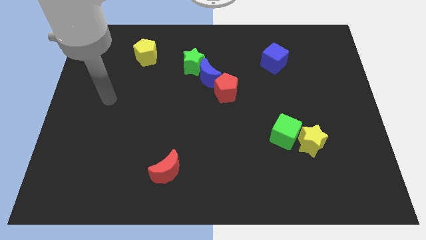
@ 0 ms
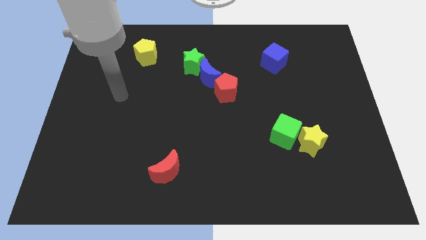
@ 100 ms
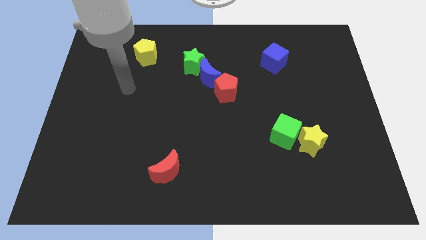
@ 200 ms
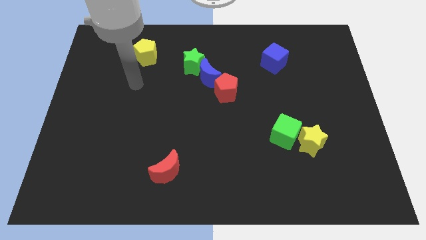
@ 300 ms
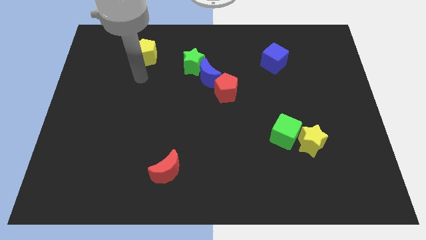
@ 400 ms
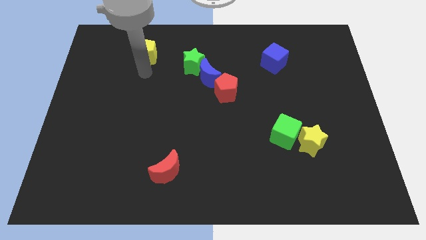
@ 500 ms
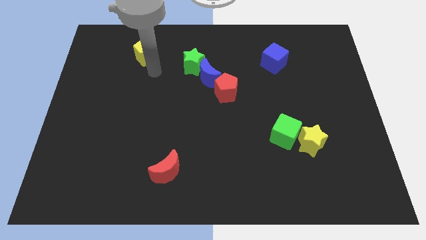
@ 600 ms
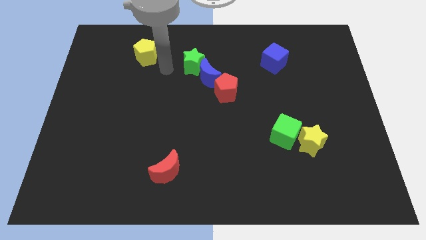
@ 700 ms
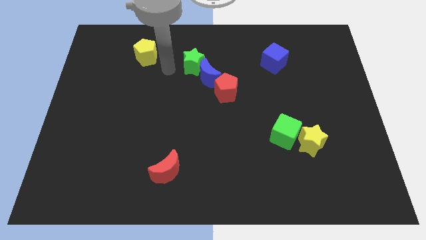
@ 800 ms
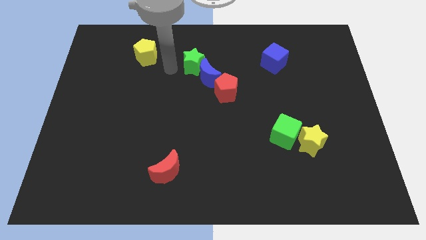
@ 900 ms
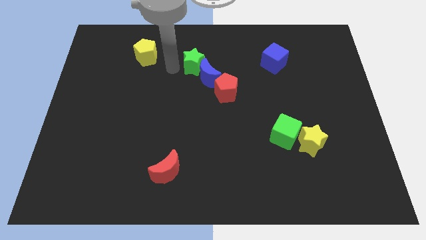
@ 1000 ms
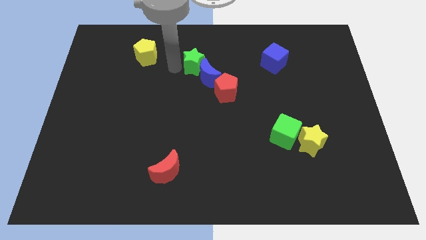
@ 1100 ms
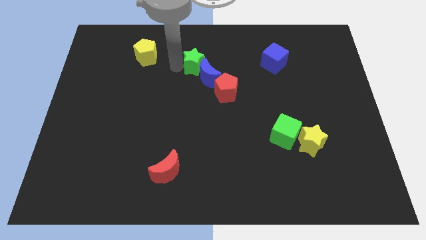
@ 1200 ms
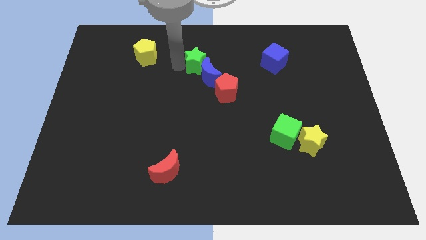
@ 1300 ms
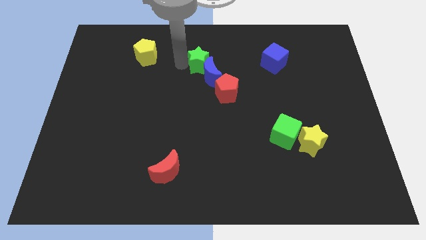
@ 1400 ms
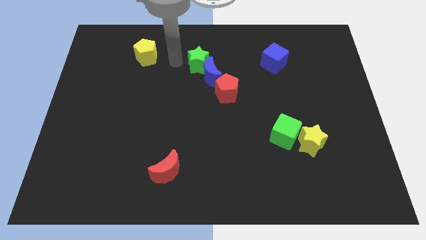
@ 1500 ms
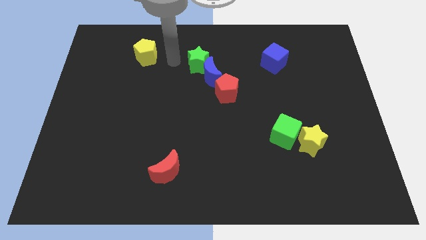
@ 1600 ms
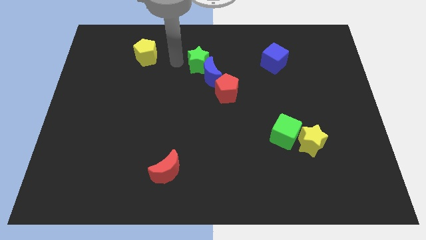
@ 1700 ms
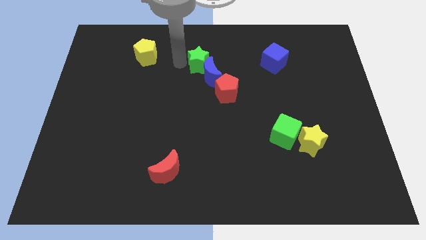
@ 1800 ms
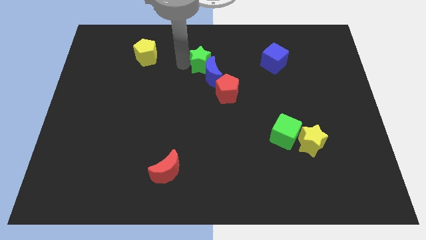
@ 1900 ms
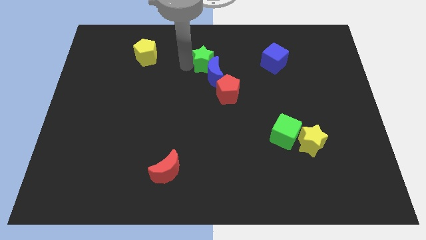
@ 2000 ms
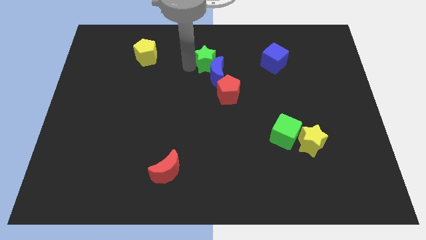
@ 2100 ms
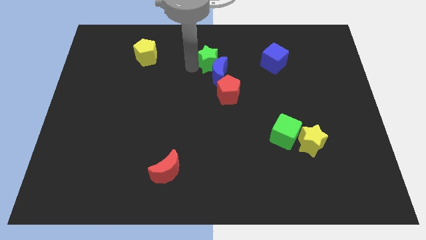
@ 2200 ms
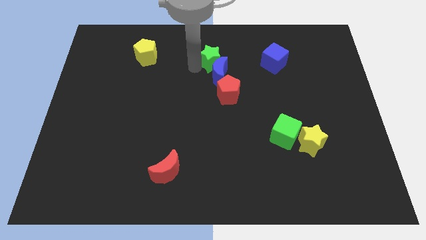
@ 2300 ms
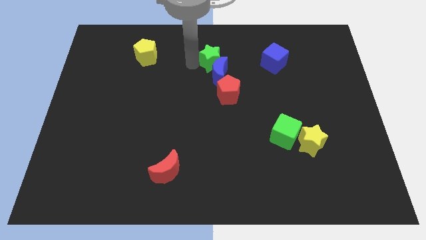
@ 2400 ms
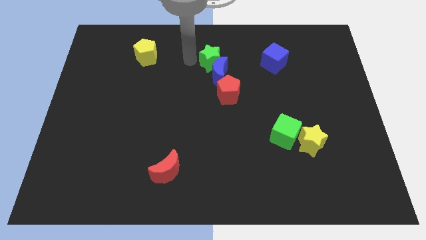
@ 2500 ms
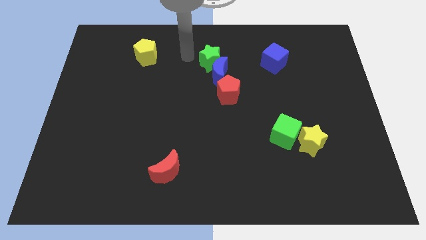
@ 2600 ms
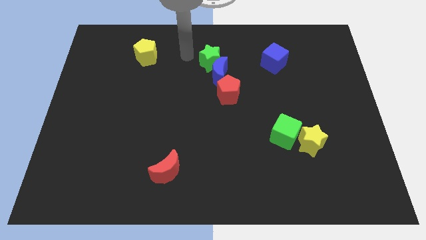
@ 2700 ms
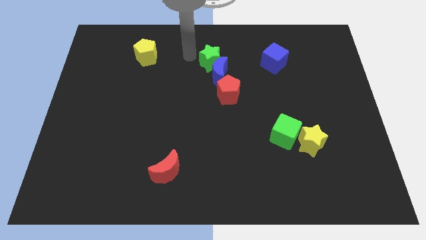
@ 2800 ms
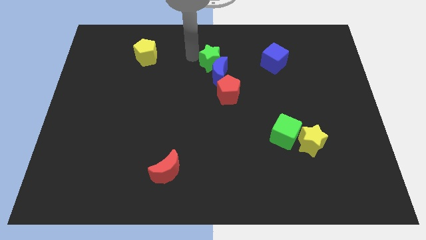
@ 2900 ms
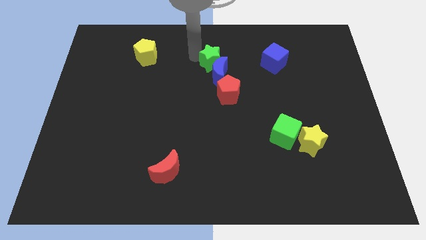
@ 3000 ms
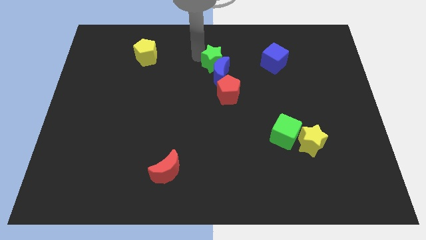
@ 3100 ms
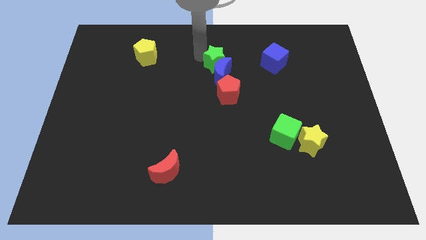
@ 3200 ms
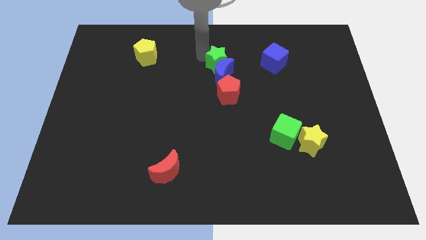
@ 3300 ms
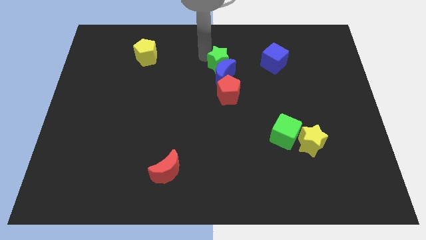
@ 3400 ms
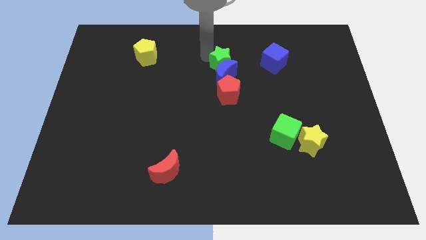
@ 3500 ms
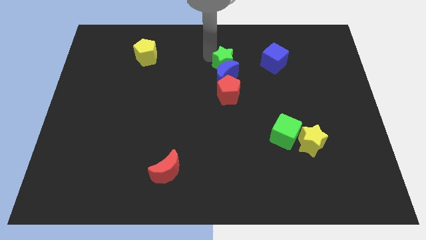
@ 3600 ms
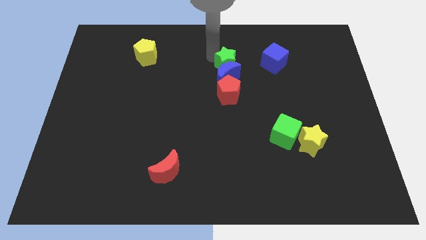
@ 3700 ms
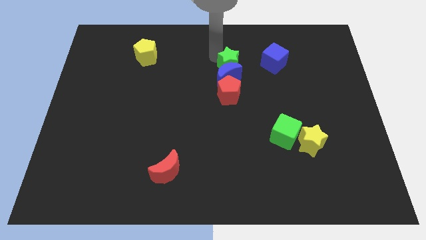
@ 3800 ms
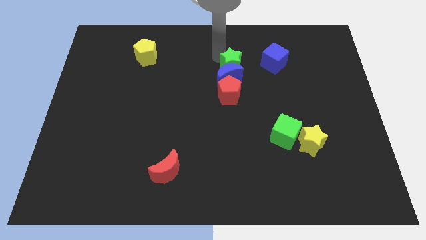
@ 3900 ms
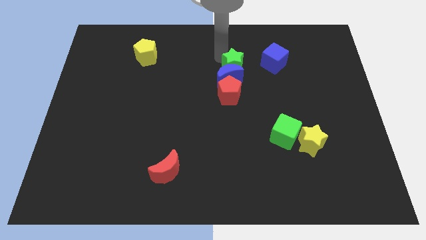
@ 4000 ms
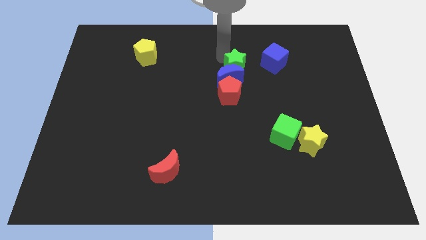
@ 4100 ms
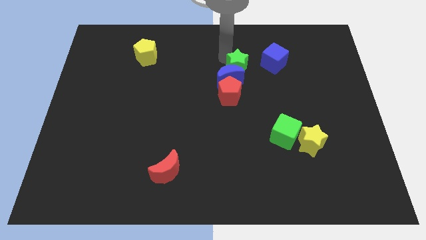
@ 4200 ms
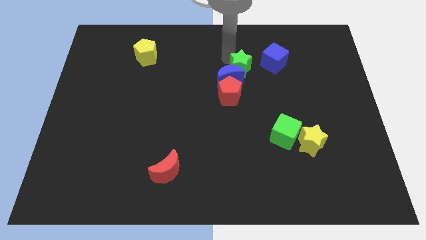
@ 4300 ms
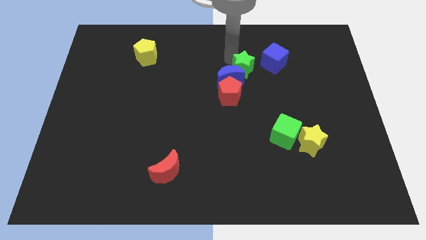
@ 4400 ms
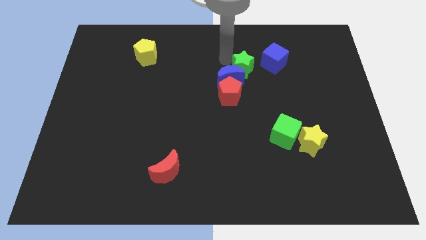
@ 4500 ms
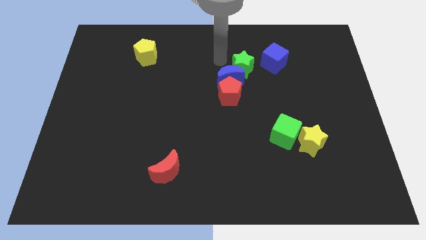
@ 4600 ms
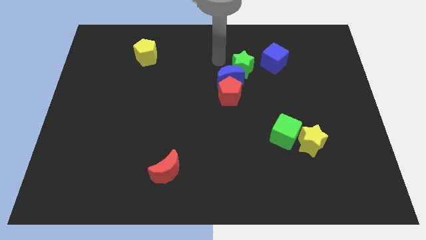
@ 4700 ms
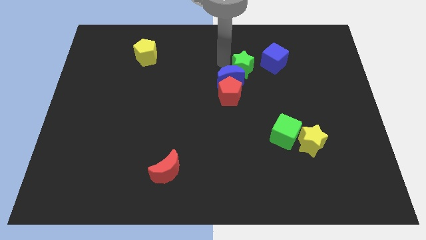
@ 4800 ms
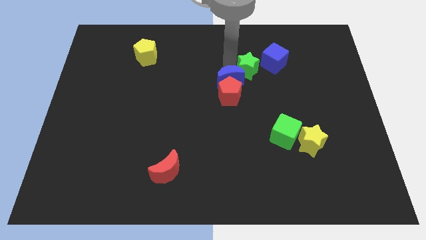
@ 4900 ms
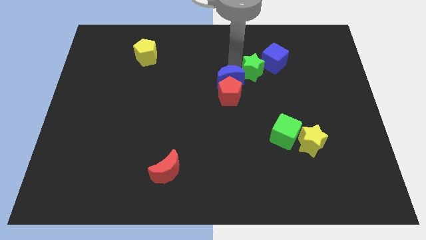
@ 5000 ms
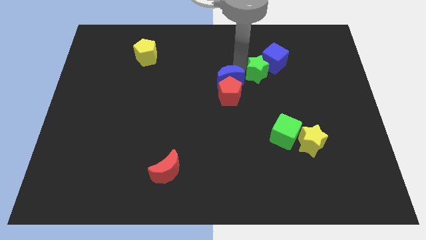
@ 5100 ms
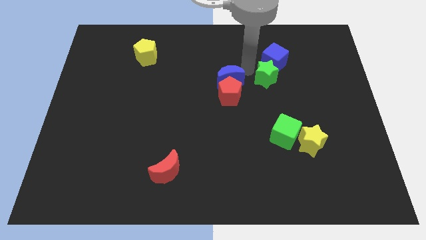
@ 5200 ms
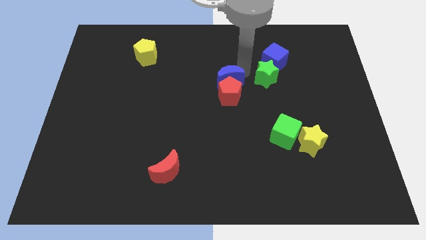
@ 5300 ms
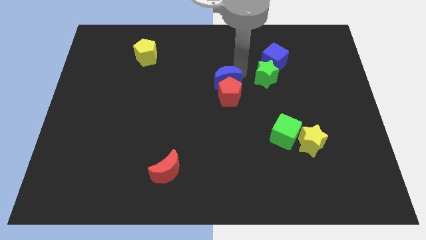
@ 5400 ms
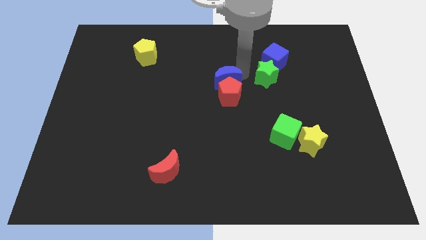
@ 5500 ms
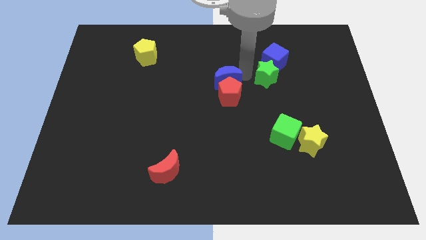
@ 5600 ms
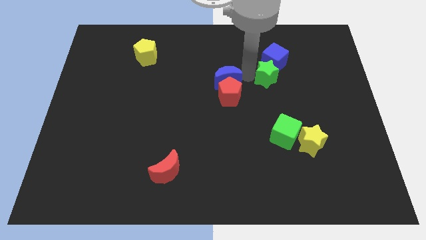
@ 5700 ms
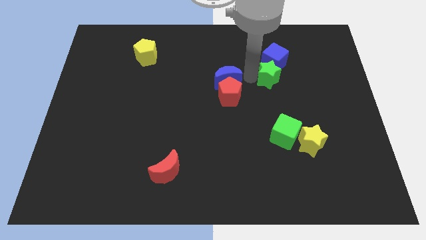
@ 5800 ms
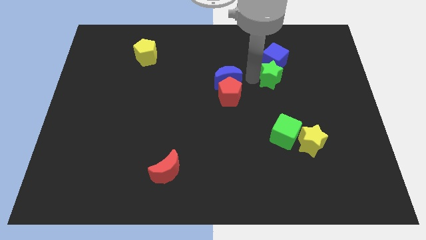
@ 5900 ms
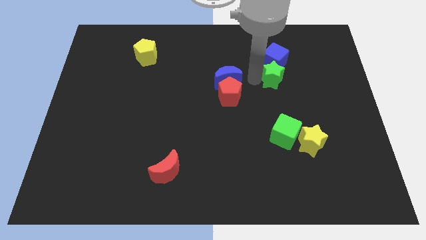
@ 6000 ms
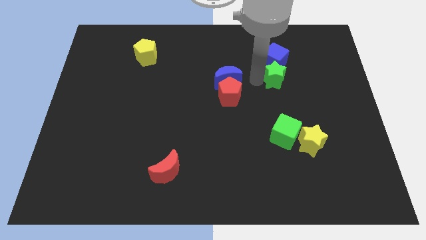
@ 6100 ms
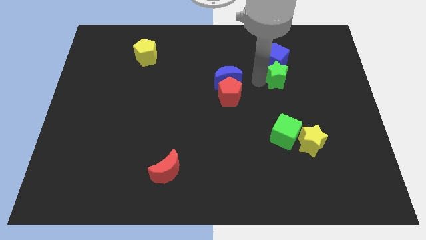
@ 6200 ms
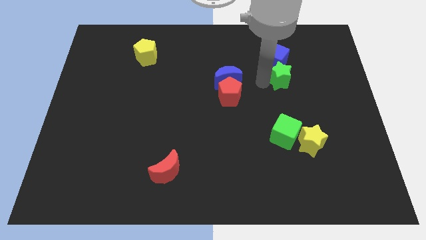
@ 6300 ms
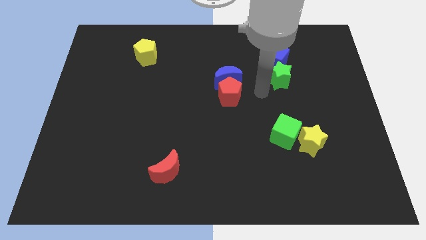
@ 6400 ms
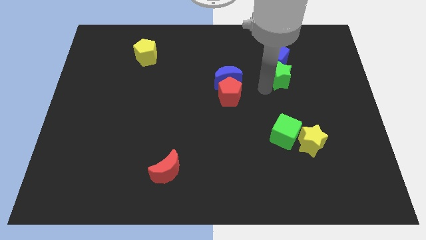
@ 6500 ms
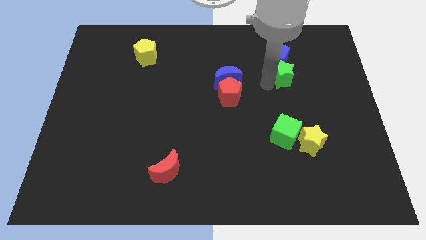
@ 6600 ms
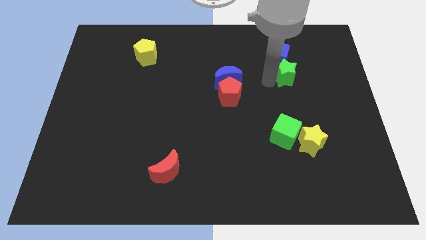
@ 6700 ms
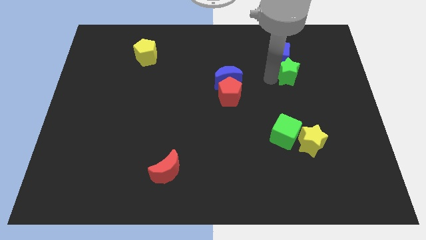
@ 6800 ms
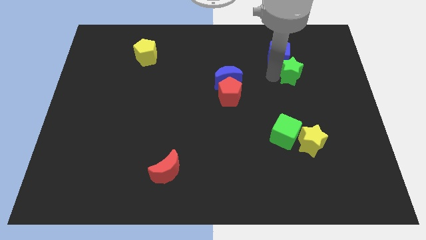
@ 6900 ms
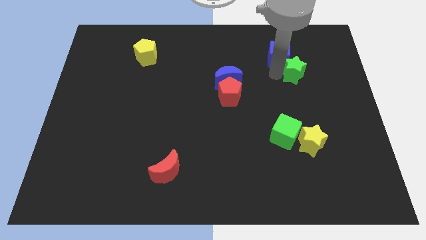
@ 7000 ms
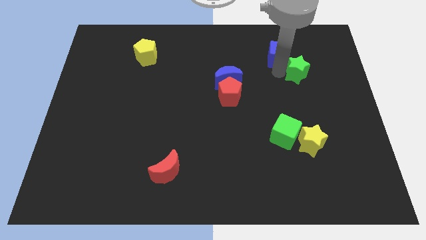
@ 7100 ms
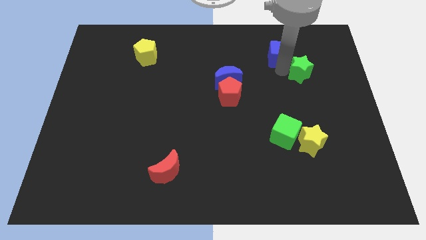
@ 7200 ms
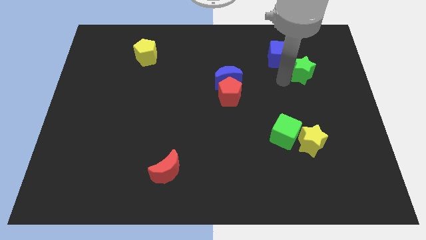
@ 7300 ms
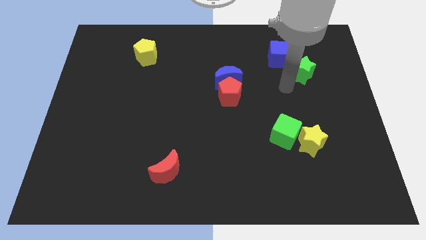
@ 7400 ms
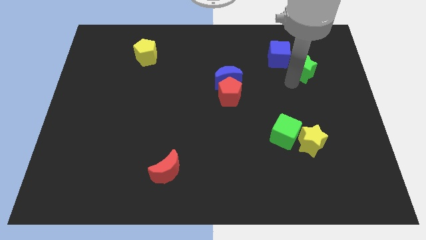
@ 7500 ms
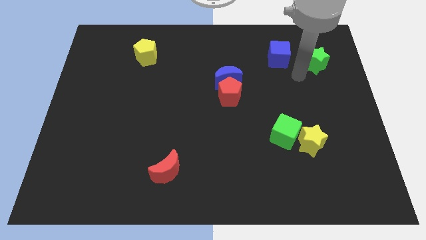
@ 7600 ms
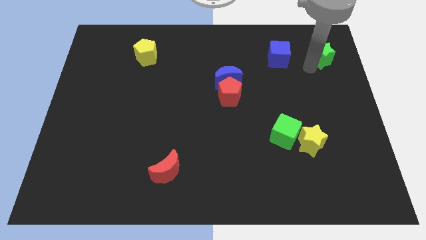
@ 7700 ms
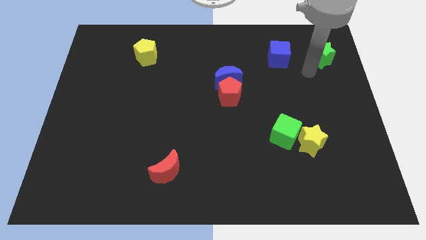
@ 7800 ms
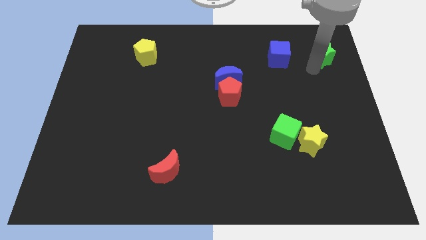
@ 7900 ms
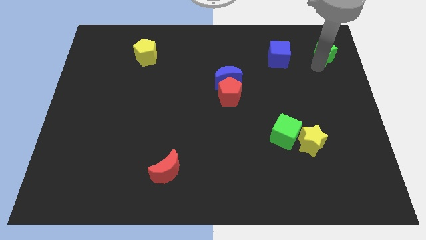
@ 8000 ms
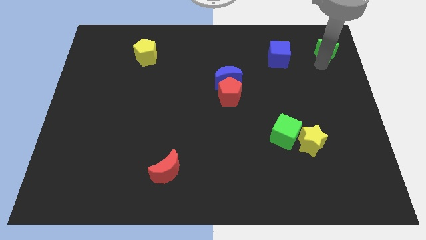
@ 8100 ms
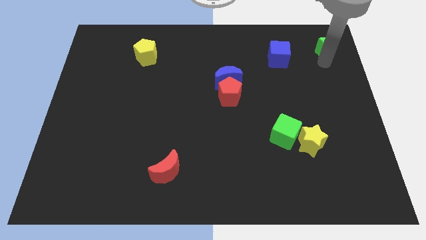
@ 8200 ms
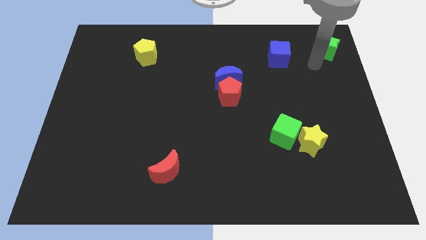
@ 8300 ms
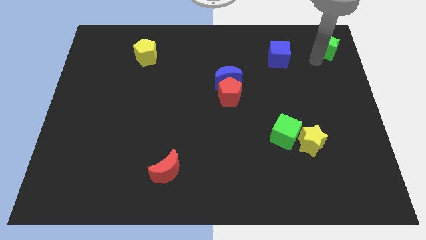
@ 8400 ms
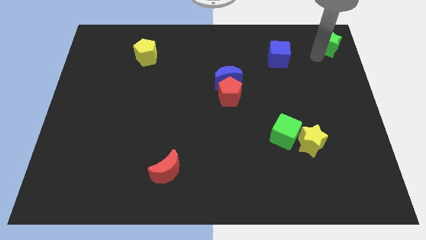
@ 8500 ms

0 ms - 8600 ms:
push the green star to the top right corner
